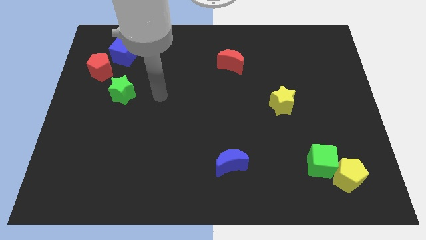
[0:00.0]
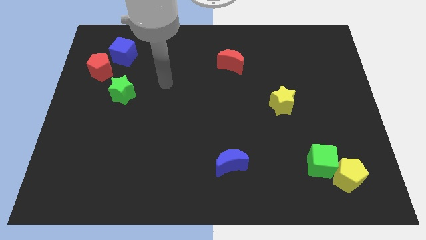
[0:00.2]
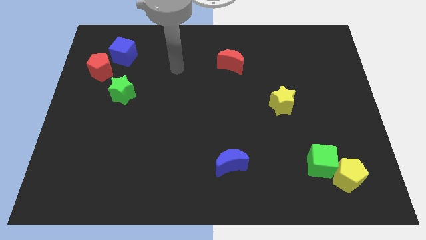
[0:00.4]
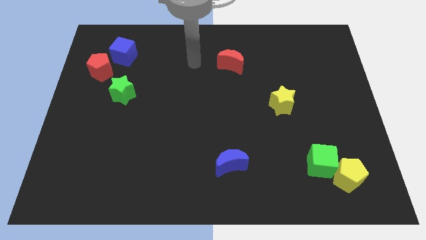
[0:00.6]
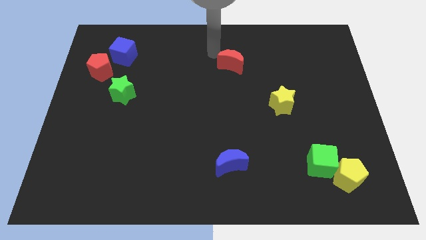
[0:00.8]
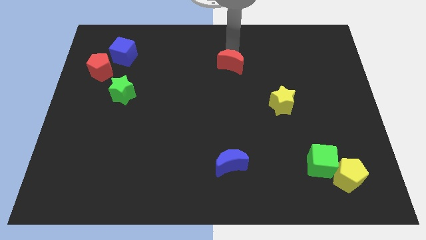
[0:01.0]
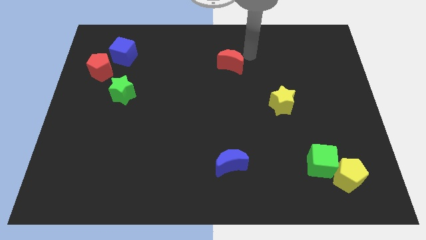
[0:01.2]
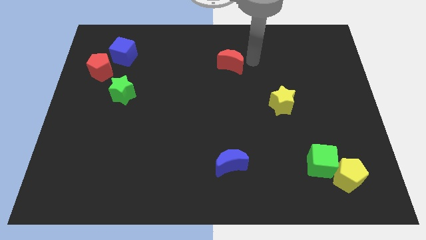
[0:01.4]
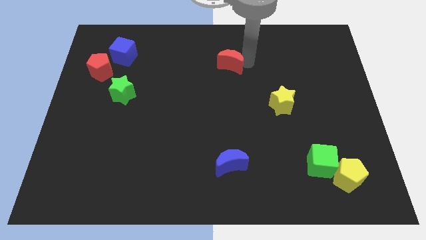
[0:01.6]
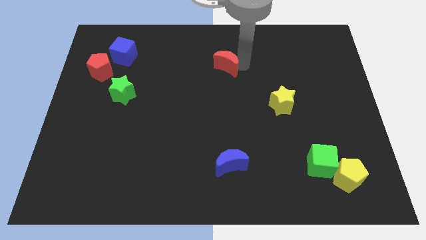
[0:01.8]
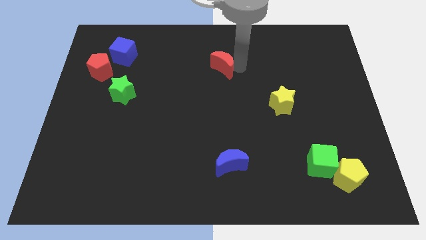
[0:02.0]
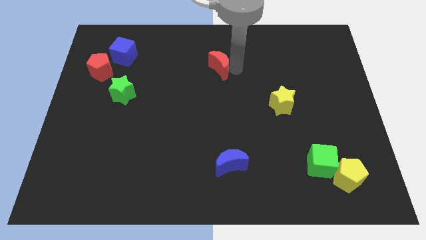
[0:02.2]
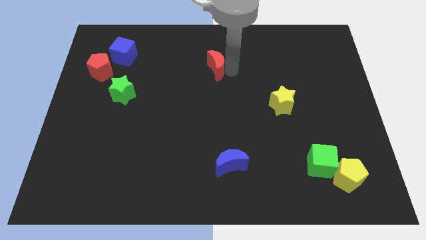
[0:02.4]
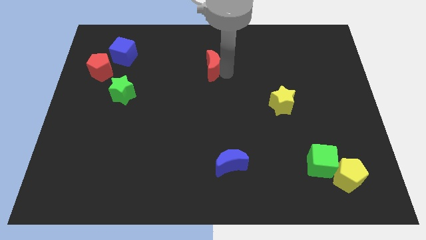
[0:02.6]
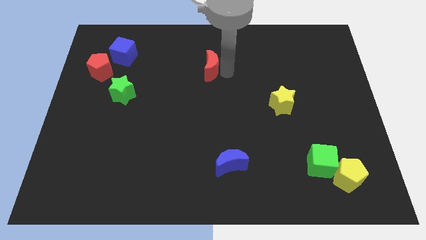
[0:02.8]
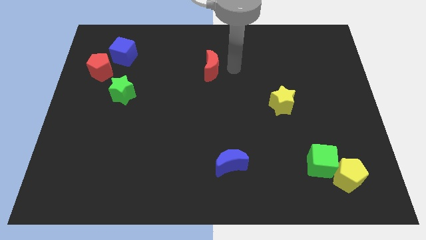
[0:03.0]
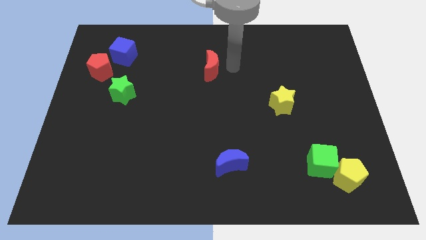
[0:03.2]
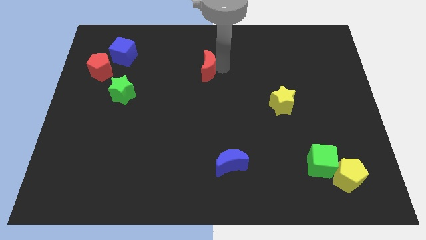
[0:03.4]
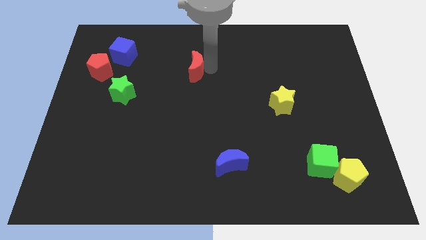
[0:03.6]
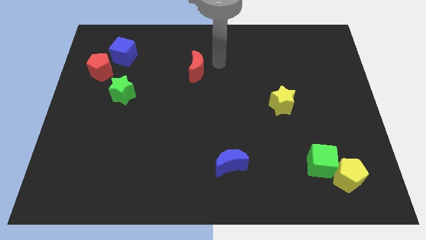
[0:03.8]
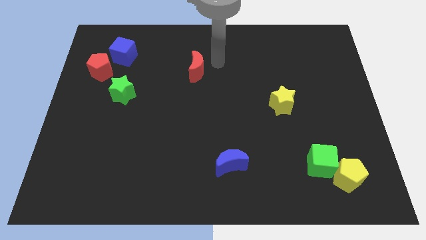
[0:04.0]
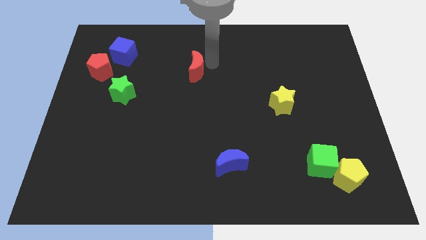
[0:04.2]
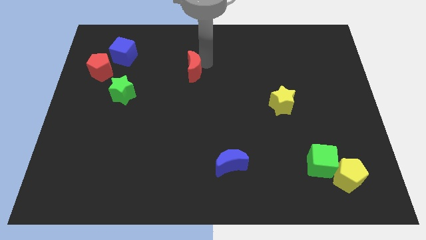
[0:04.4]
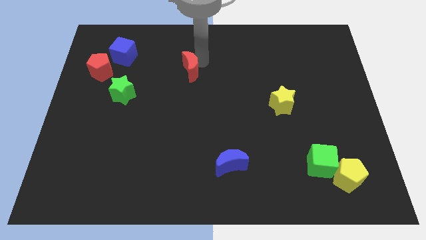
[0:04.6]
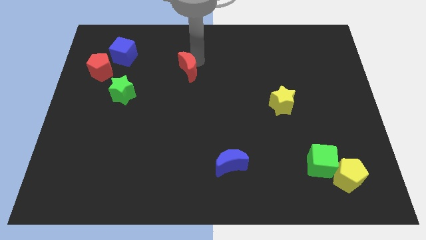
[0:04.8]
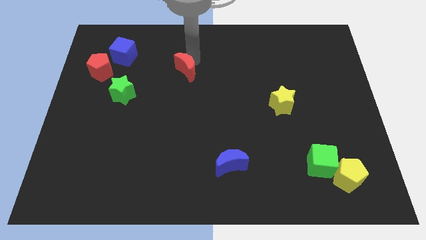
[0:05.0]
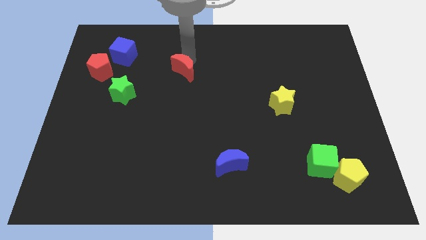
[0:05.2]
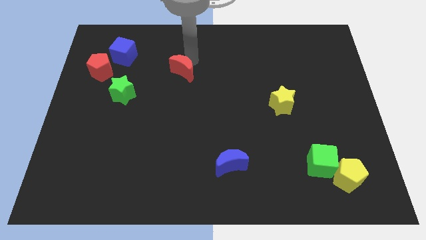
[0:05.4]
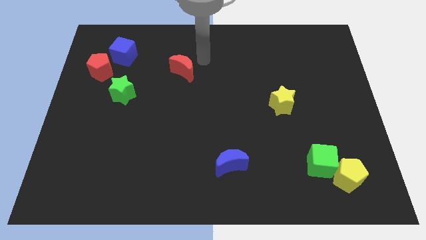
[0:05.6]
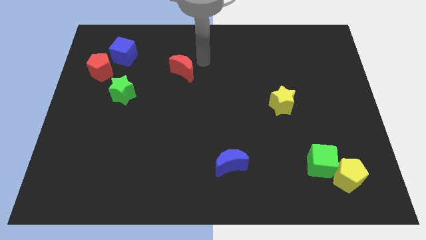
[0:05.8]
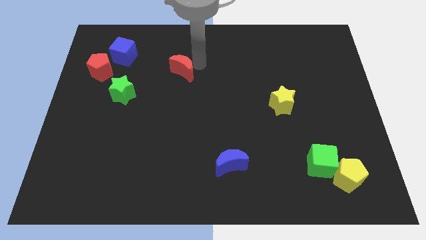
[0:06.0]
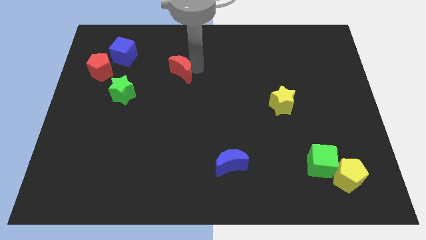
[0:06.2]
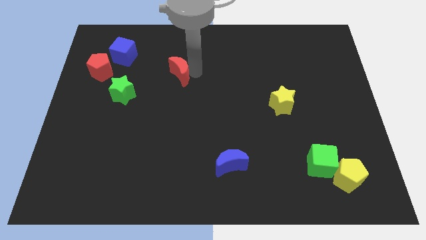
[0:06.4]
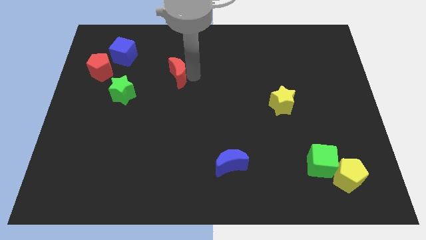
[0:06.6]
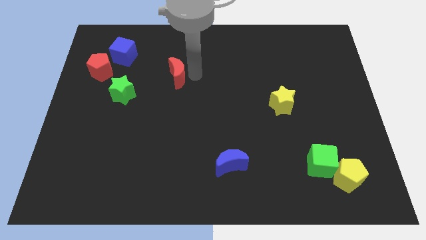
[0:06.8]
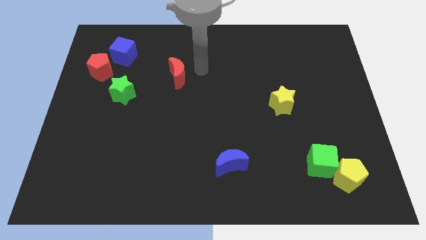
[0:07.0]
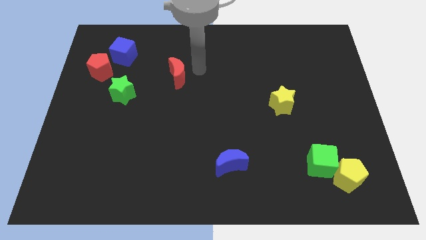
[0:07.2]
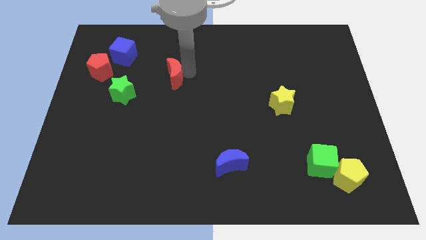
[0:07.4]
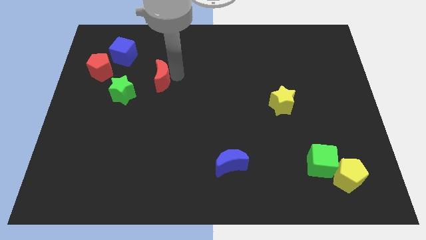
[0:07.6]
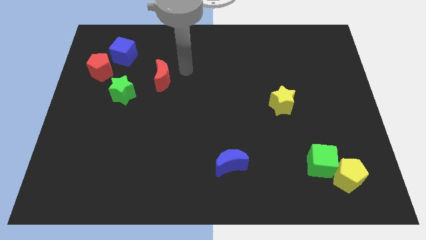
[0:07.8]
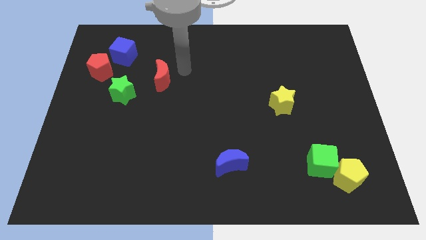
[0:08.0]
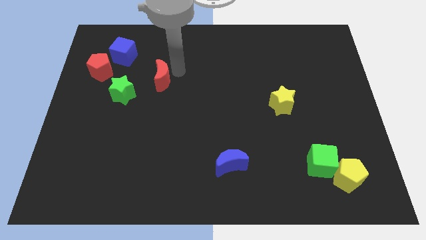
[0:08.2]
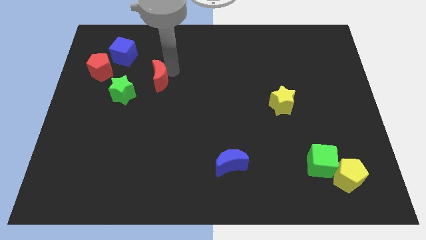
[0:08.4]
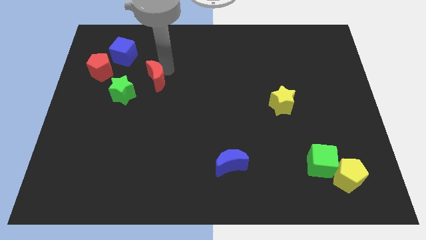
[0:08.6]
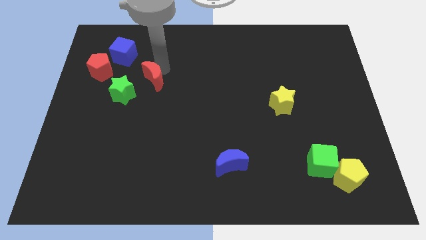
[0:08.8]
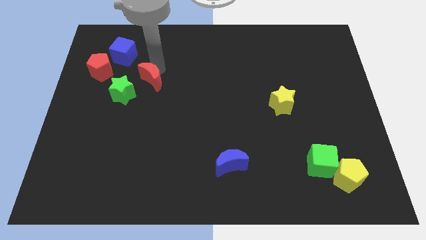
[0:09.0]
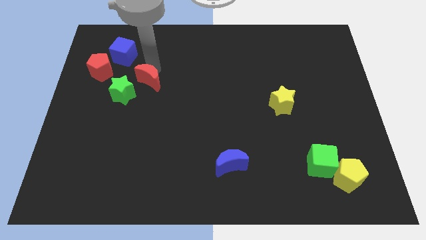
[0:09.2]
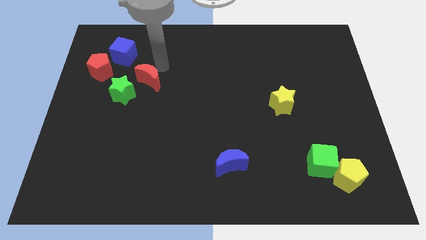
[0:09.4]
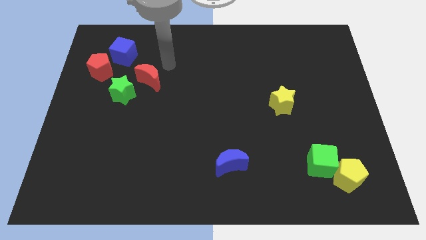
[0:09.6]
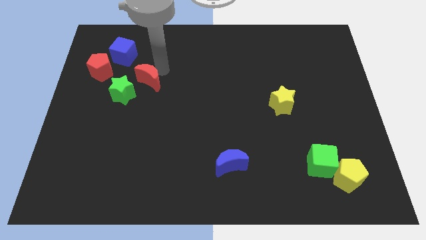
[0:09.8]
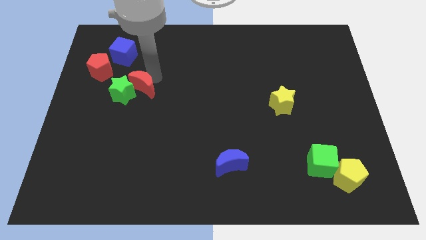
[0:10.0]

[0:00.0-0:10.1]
move the red moon towards the green star
